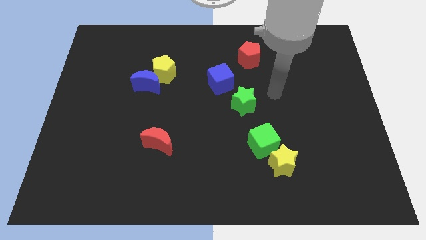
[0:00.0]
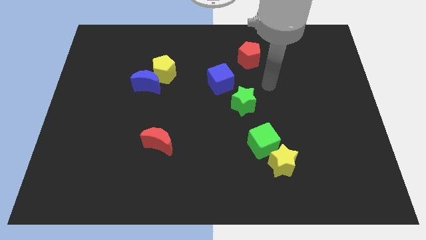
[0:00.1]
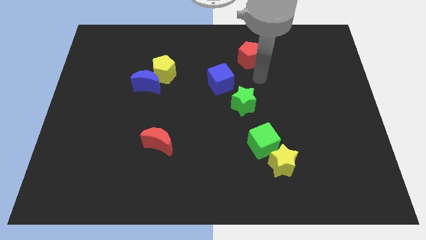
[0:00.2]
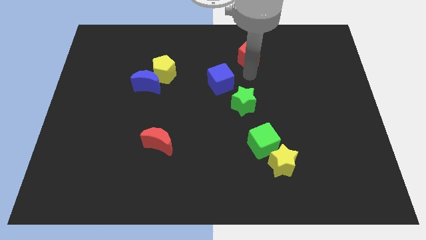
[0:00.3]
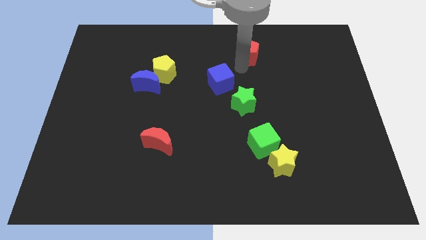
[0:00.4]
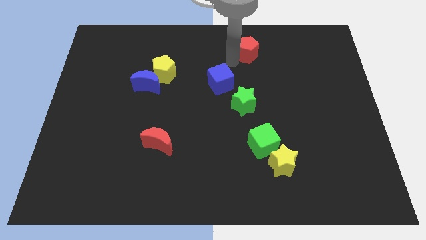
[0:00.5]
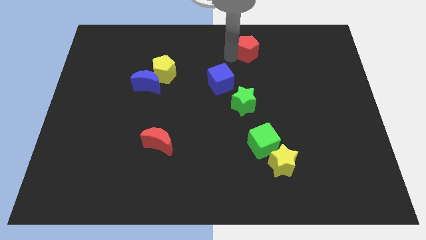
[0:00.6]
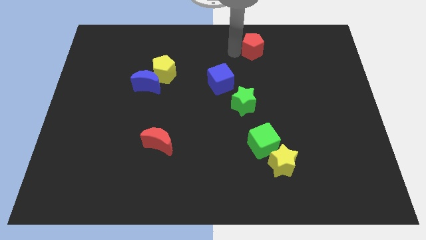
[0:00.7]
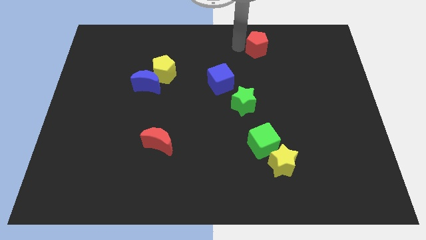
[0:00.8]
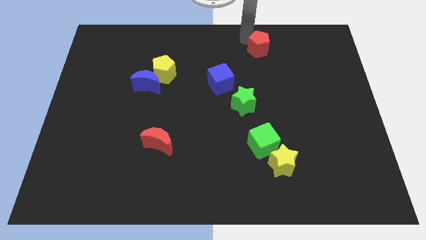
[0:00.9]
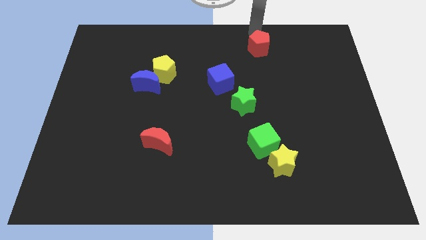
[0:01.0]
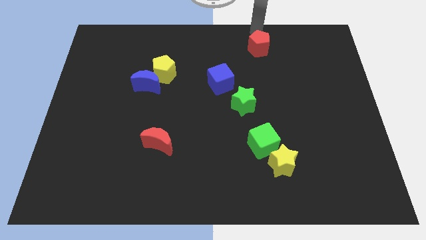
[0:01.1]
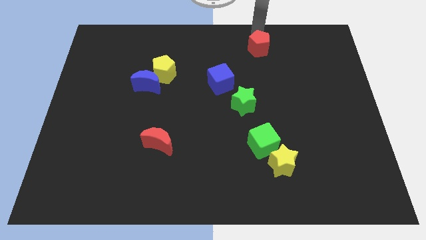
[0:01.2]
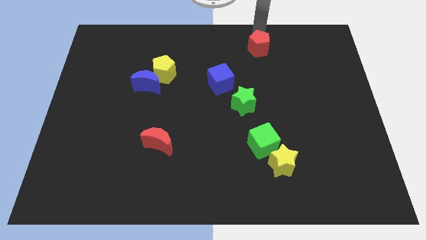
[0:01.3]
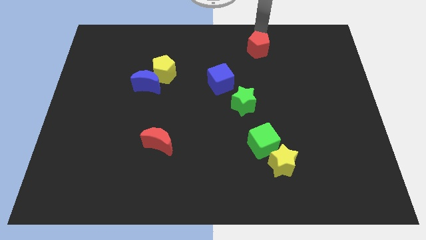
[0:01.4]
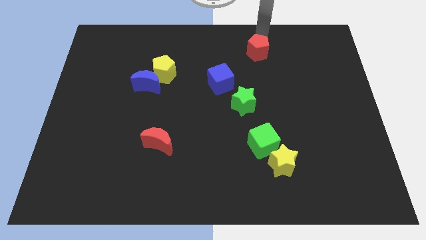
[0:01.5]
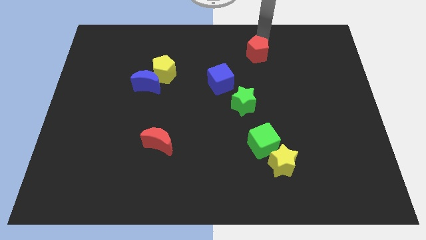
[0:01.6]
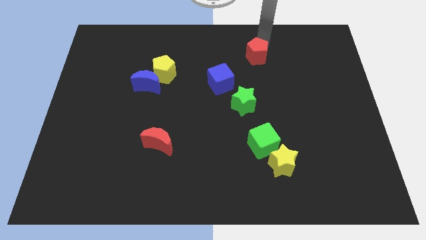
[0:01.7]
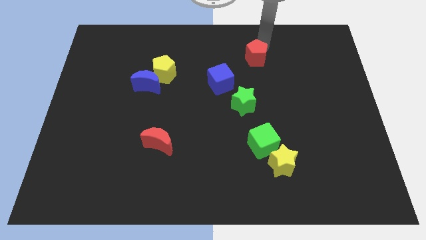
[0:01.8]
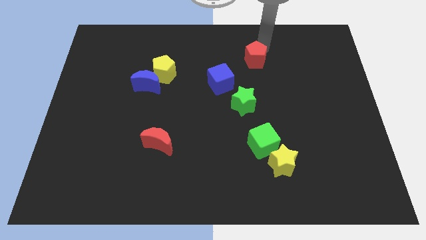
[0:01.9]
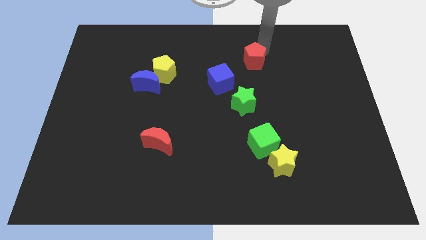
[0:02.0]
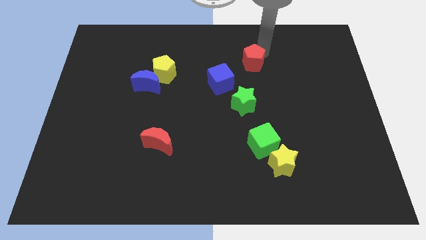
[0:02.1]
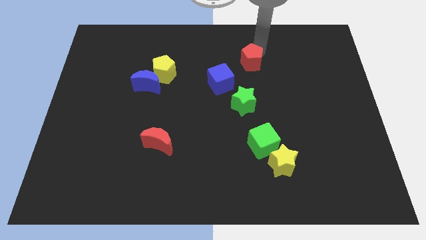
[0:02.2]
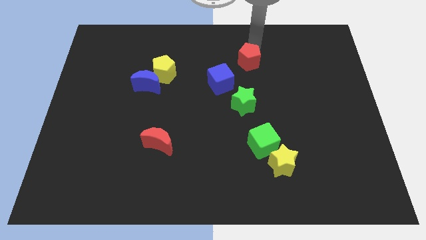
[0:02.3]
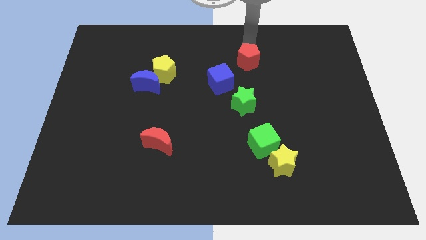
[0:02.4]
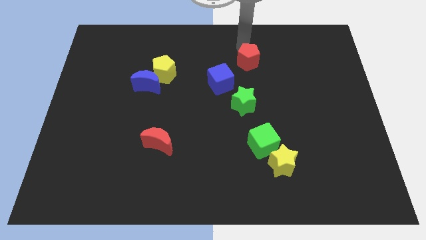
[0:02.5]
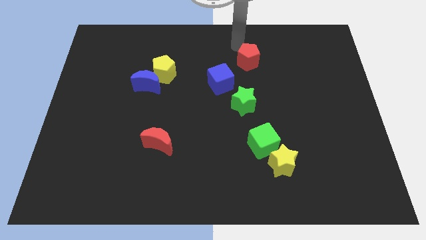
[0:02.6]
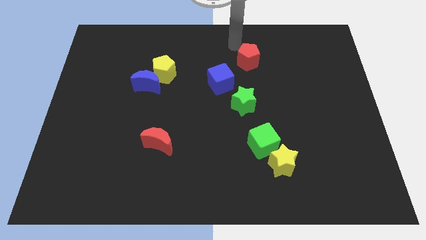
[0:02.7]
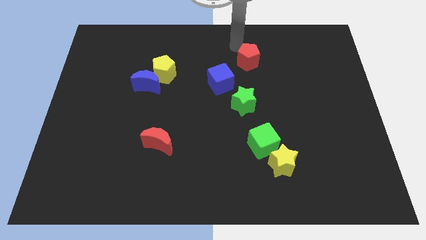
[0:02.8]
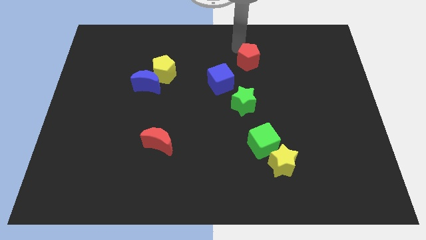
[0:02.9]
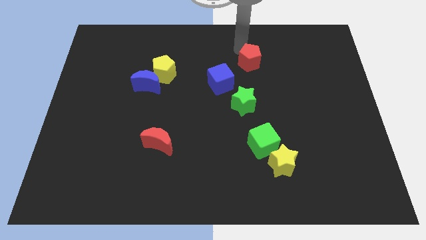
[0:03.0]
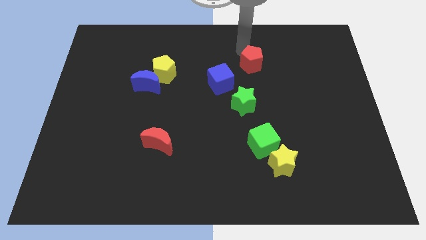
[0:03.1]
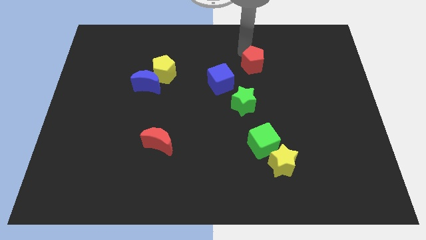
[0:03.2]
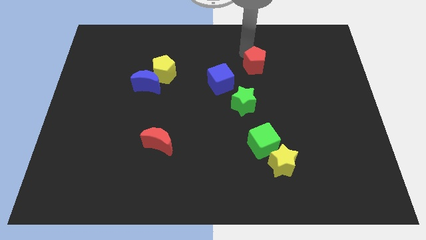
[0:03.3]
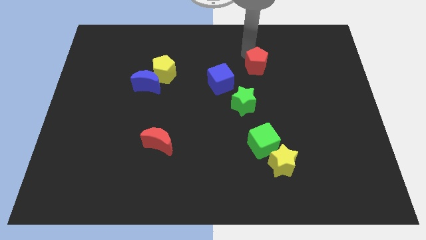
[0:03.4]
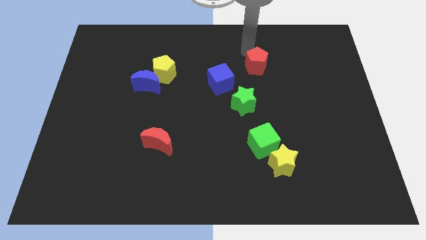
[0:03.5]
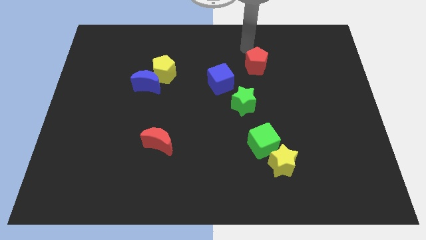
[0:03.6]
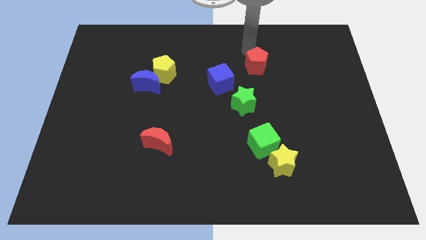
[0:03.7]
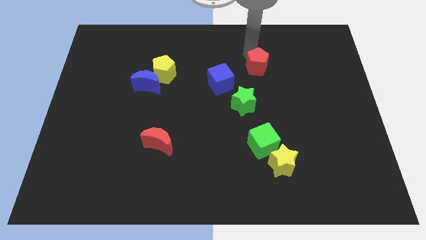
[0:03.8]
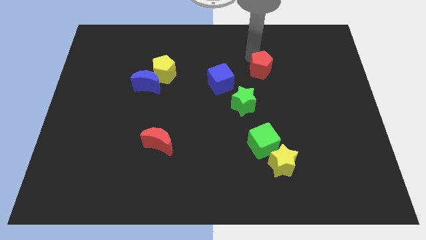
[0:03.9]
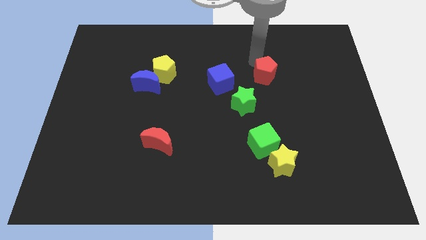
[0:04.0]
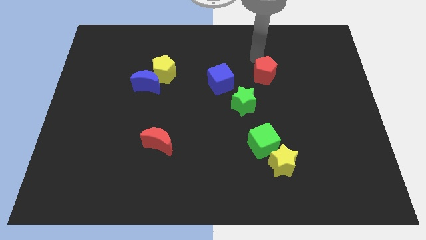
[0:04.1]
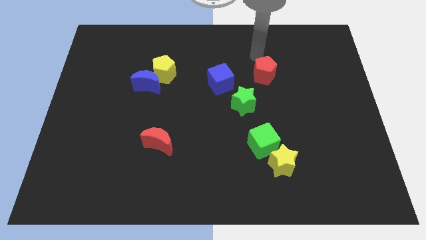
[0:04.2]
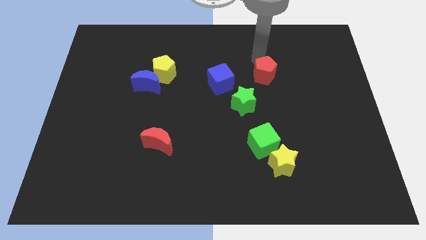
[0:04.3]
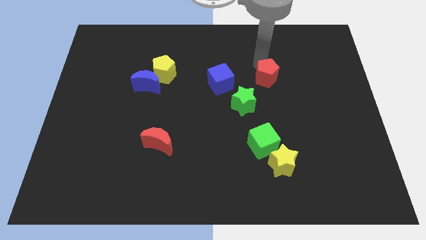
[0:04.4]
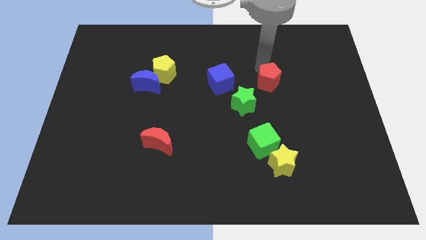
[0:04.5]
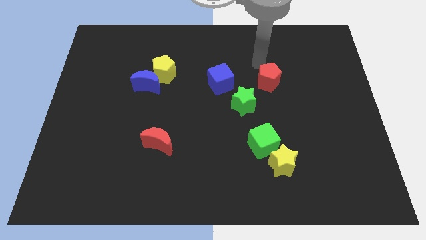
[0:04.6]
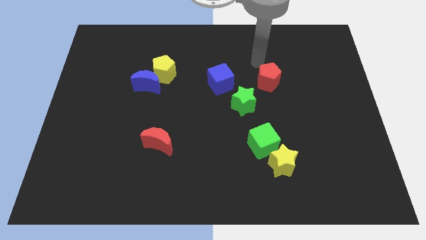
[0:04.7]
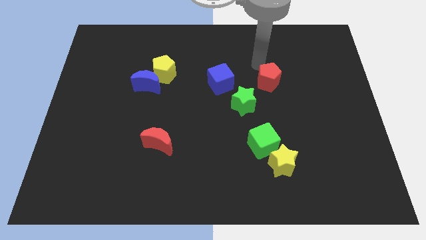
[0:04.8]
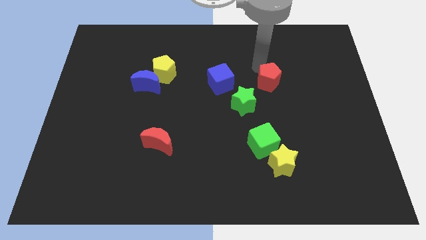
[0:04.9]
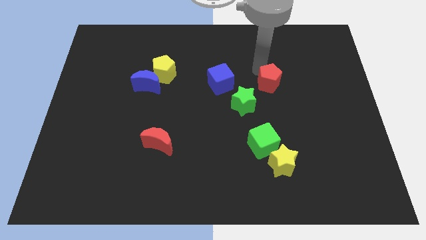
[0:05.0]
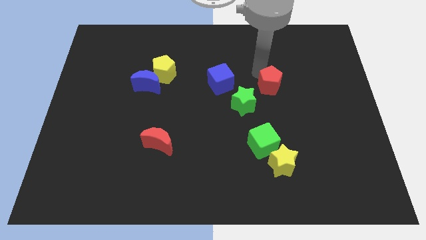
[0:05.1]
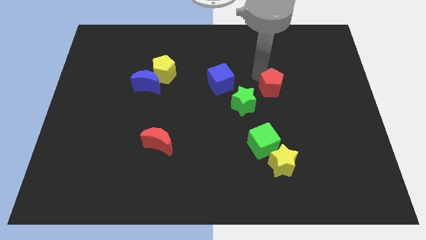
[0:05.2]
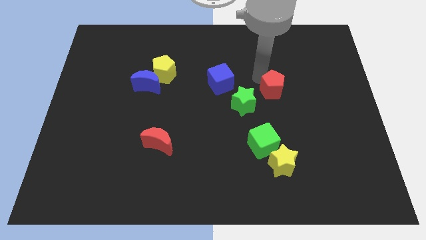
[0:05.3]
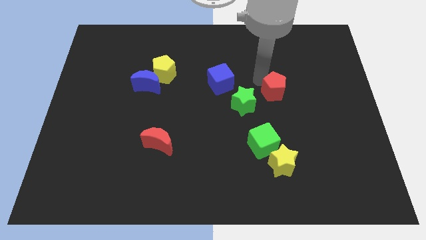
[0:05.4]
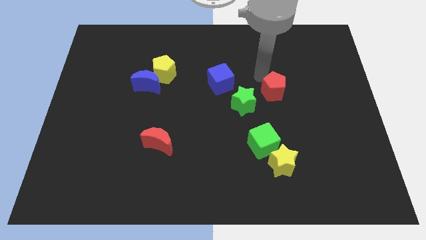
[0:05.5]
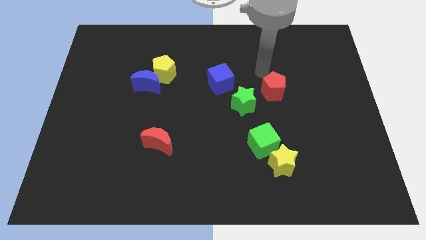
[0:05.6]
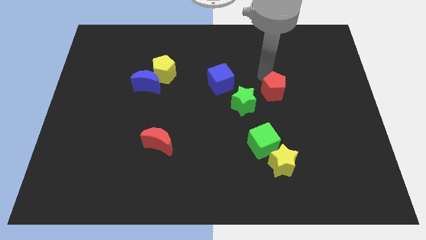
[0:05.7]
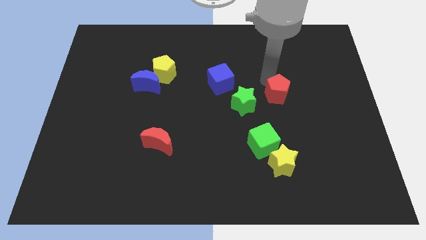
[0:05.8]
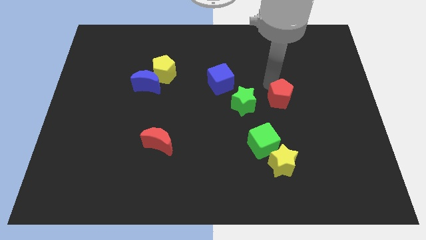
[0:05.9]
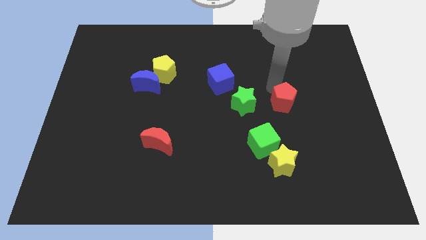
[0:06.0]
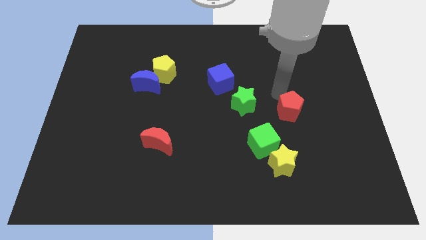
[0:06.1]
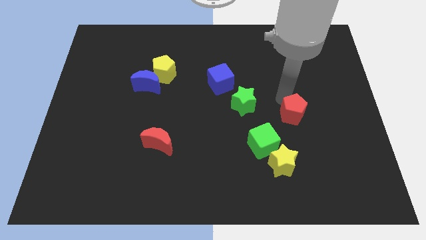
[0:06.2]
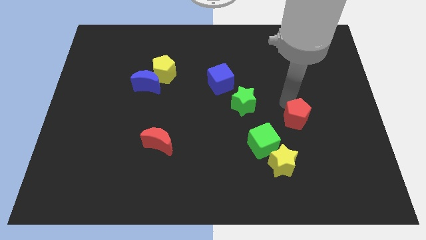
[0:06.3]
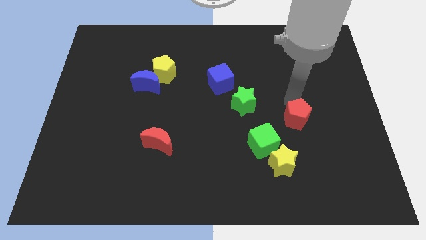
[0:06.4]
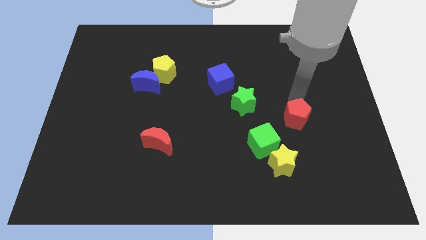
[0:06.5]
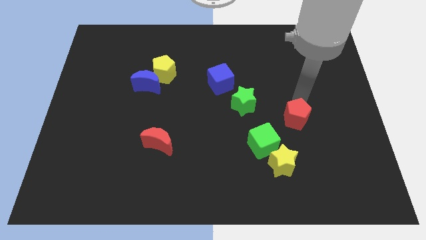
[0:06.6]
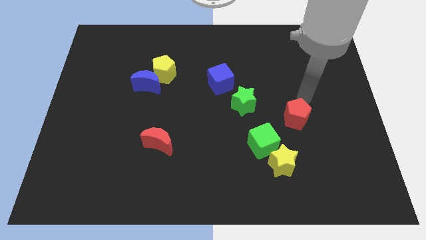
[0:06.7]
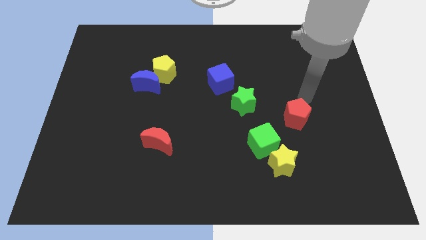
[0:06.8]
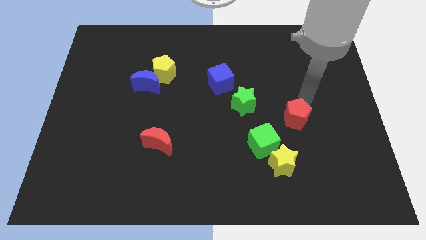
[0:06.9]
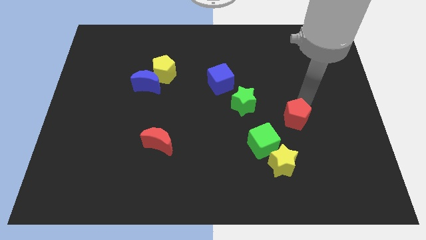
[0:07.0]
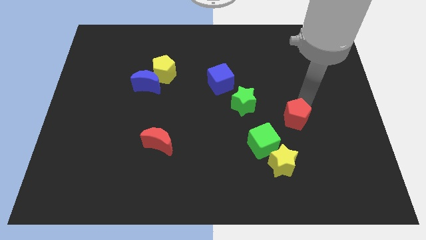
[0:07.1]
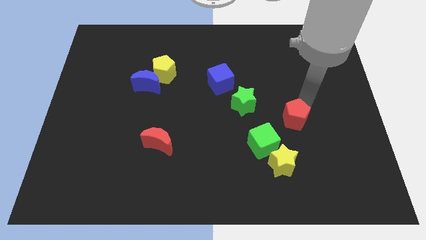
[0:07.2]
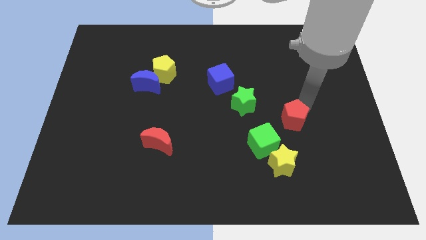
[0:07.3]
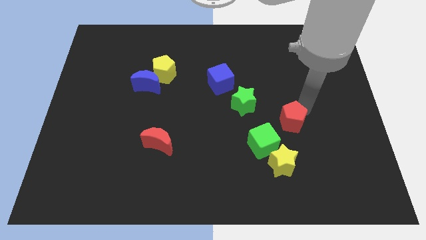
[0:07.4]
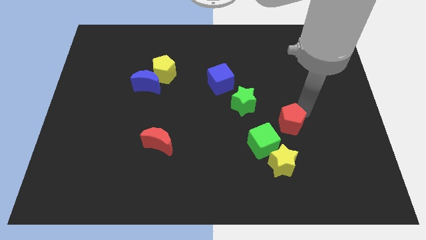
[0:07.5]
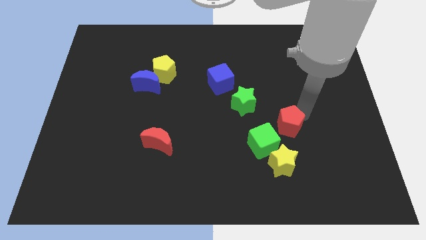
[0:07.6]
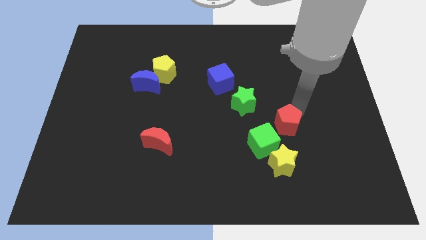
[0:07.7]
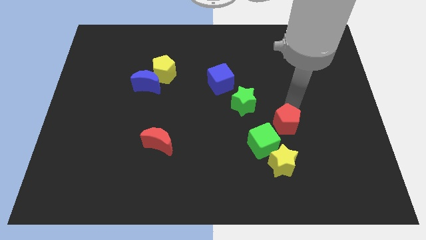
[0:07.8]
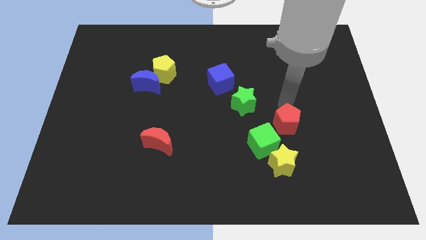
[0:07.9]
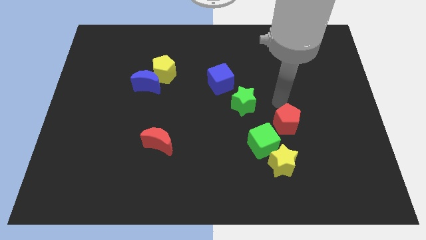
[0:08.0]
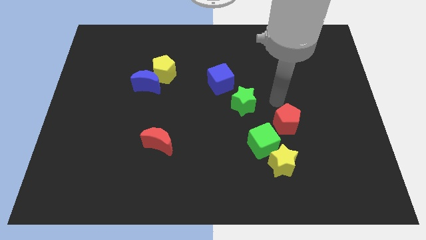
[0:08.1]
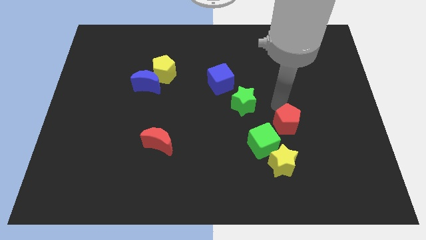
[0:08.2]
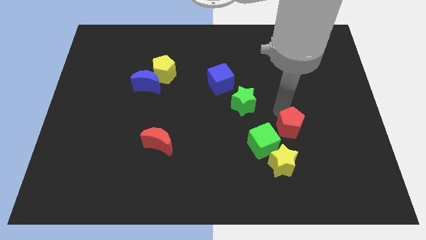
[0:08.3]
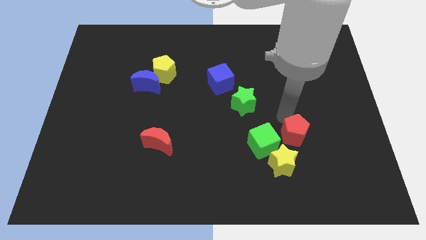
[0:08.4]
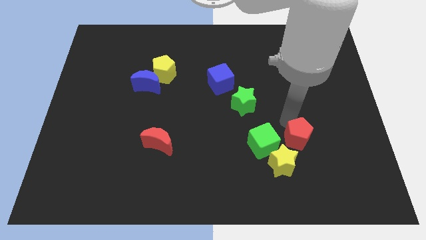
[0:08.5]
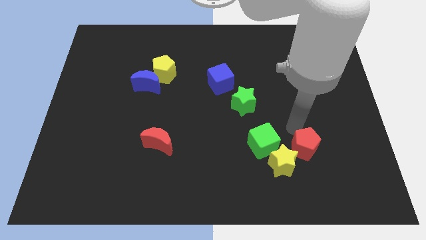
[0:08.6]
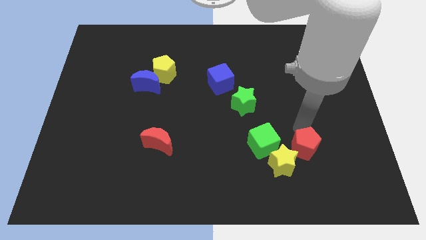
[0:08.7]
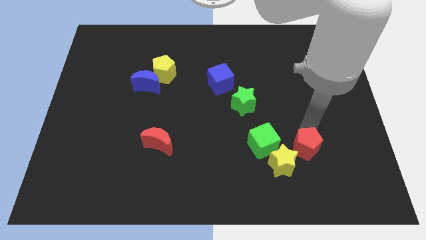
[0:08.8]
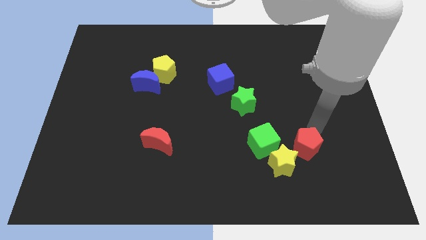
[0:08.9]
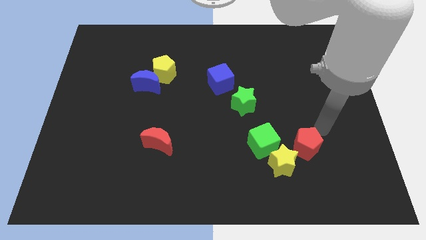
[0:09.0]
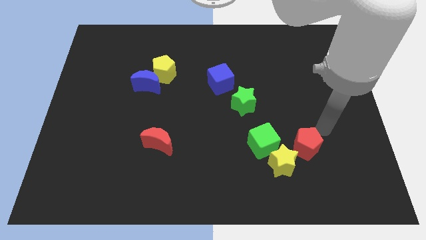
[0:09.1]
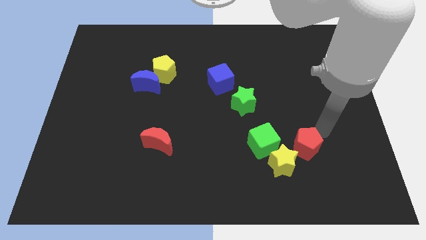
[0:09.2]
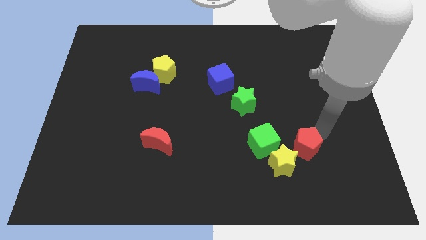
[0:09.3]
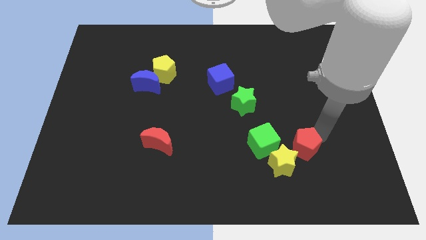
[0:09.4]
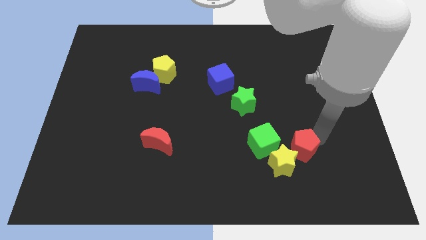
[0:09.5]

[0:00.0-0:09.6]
slide the red pentagon close to the yellow star
